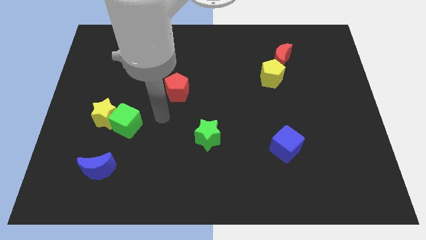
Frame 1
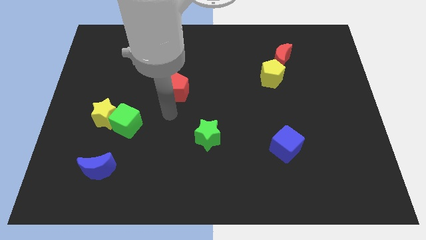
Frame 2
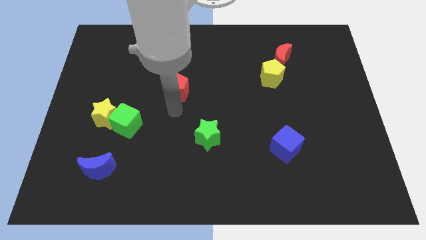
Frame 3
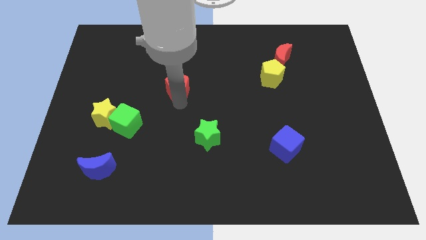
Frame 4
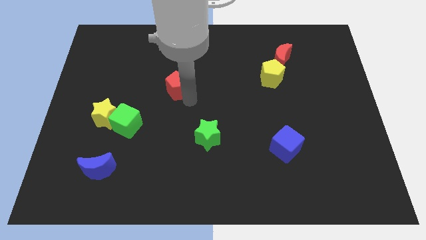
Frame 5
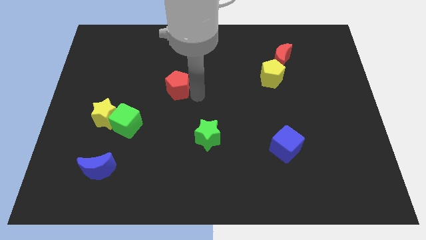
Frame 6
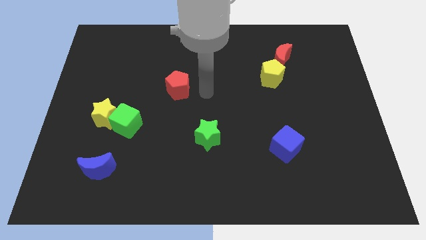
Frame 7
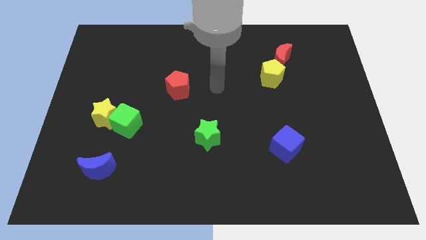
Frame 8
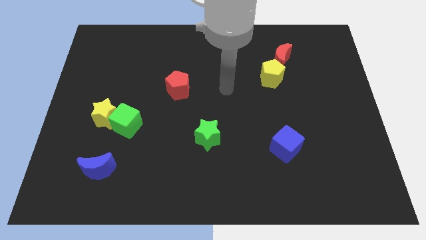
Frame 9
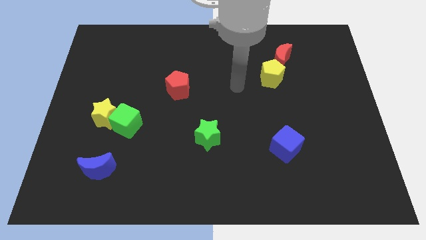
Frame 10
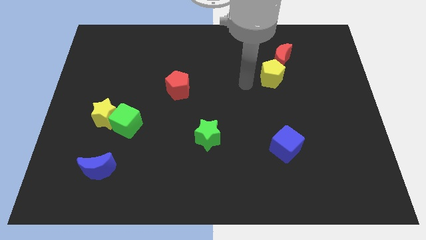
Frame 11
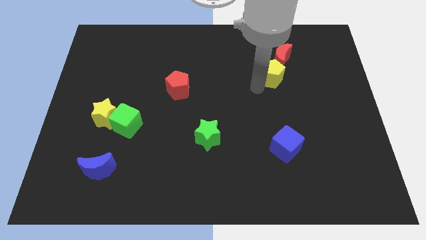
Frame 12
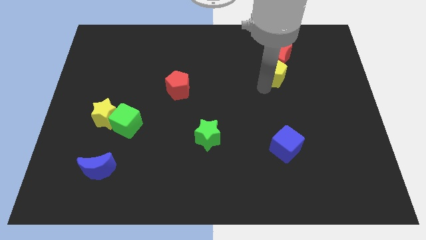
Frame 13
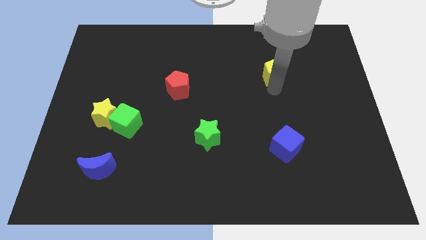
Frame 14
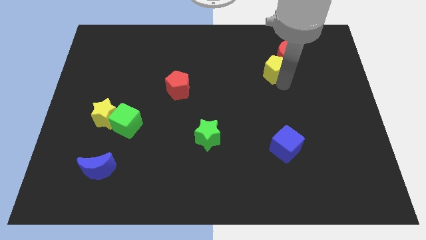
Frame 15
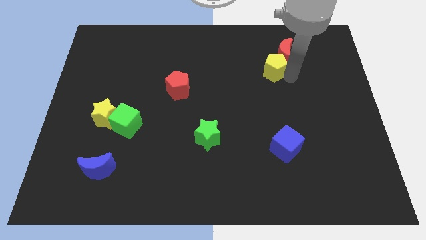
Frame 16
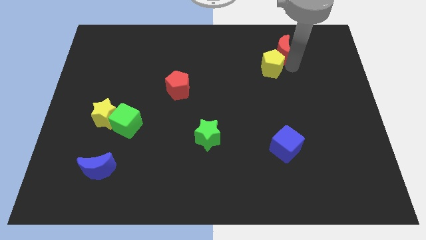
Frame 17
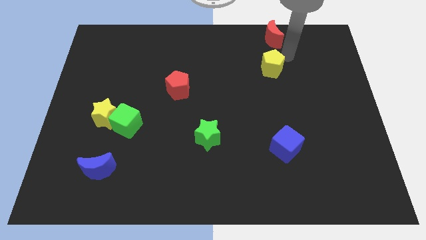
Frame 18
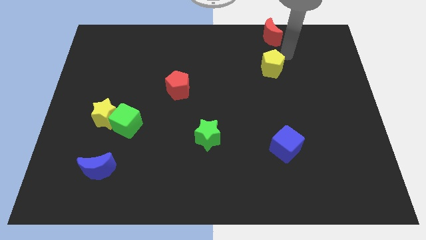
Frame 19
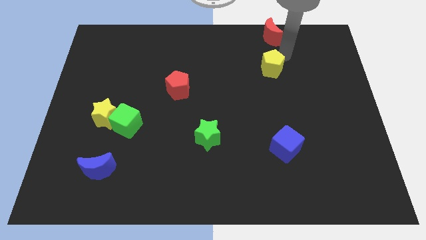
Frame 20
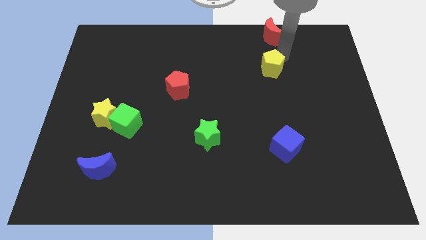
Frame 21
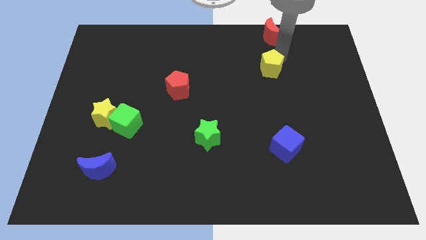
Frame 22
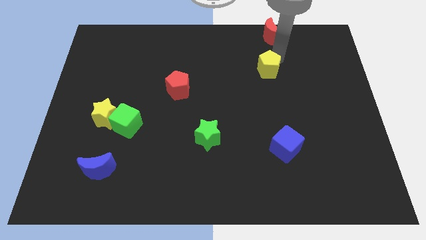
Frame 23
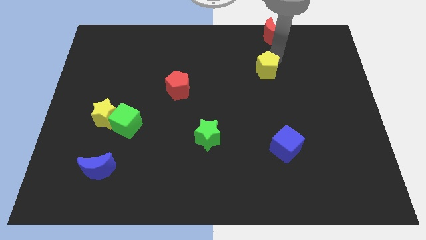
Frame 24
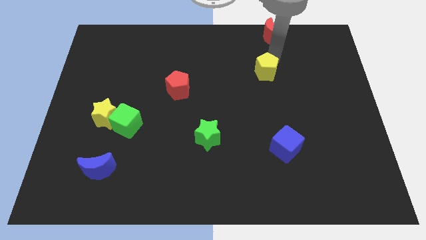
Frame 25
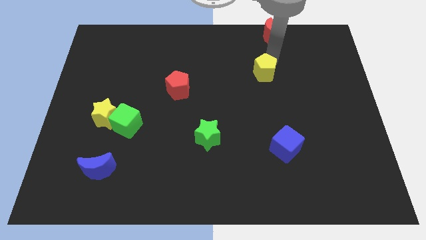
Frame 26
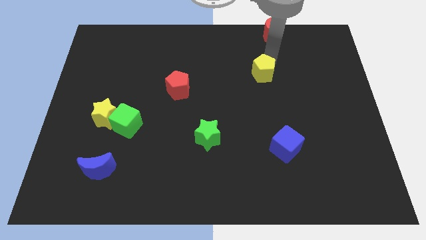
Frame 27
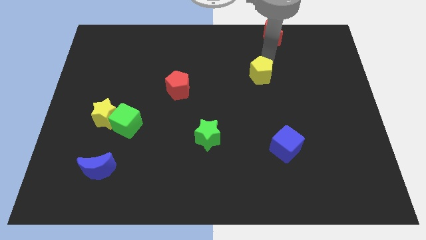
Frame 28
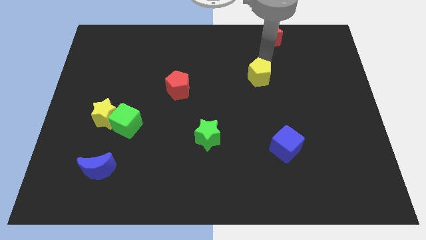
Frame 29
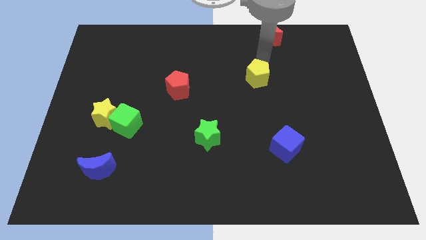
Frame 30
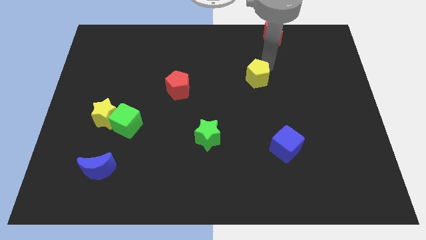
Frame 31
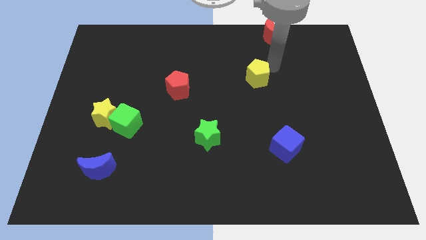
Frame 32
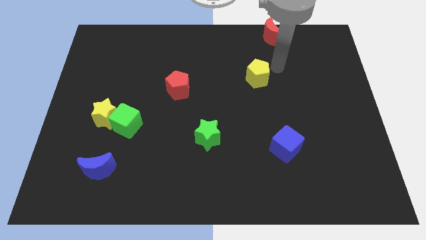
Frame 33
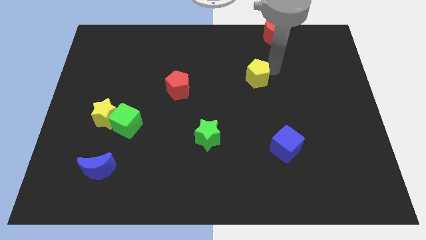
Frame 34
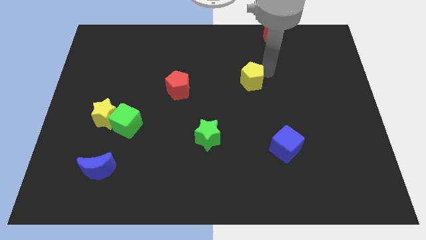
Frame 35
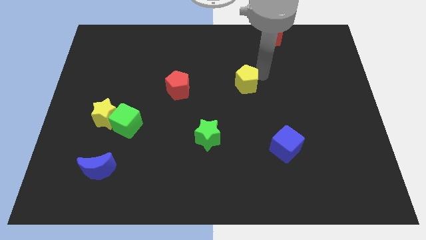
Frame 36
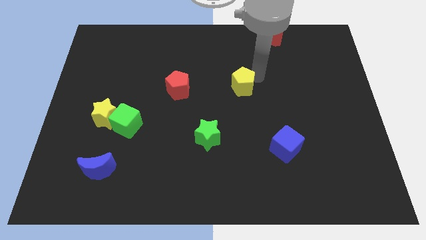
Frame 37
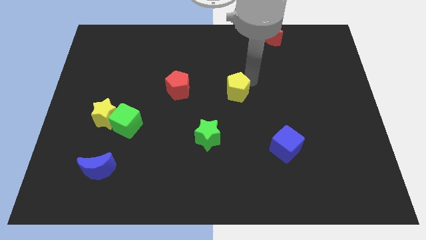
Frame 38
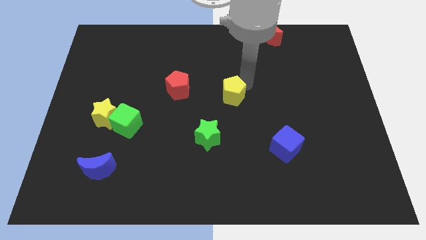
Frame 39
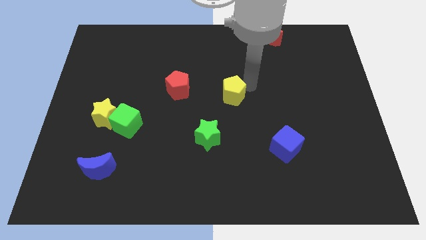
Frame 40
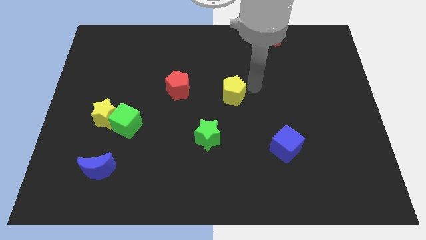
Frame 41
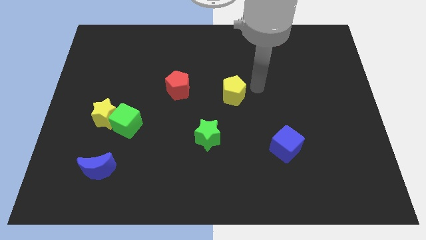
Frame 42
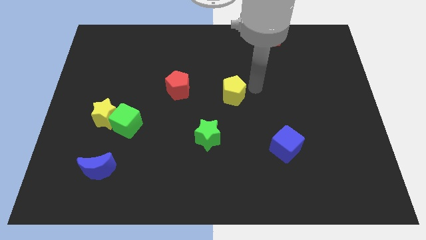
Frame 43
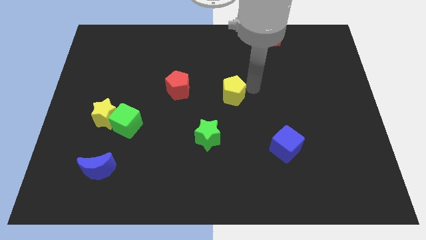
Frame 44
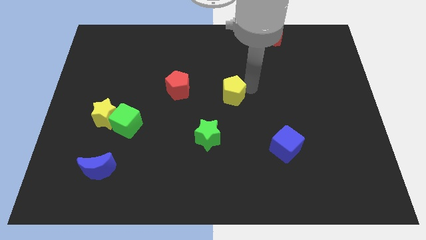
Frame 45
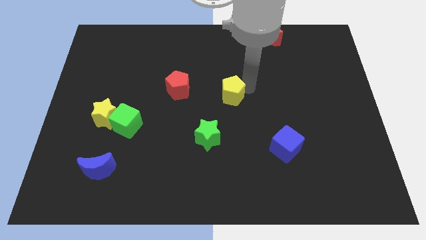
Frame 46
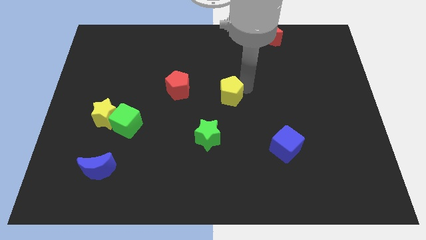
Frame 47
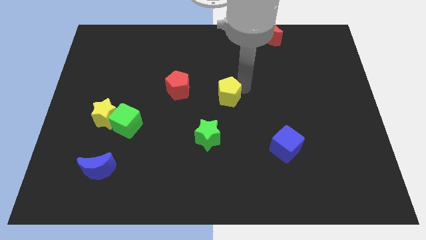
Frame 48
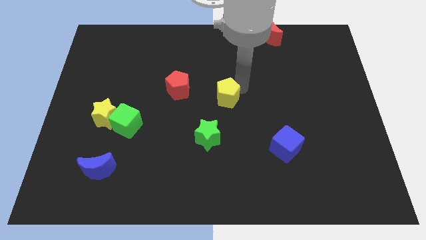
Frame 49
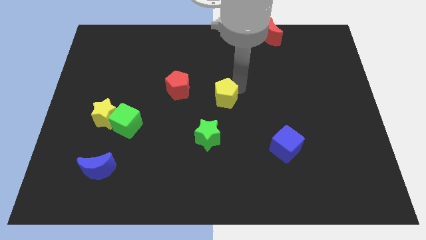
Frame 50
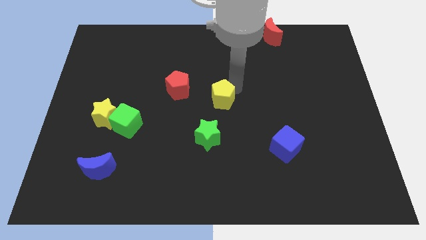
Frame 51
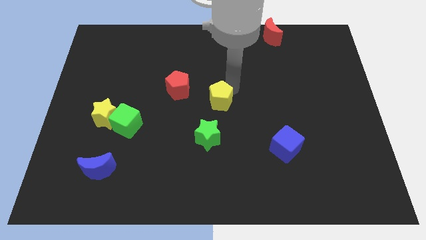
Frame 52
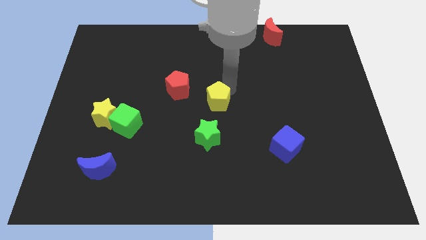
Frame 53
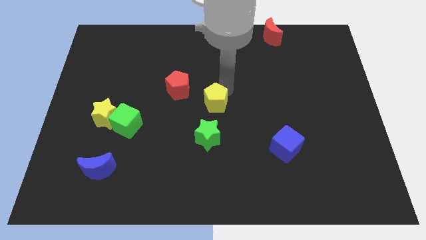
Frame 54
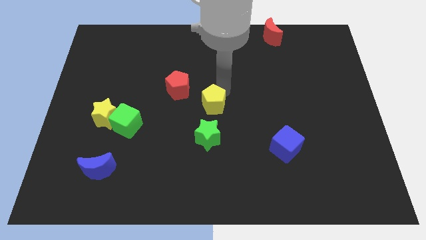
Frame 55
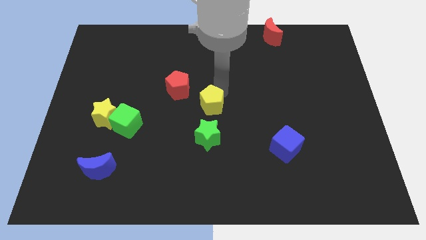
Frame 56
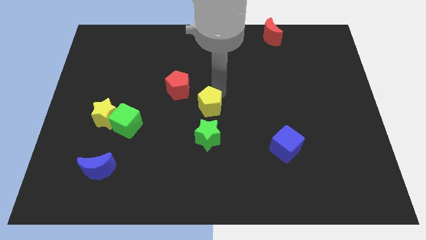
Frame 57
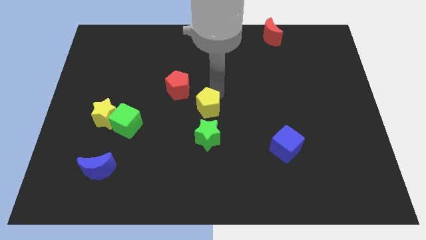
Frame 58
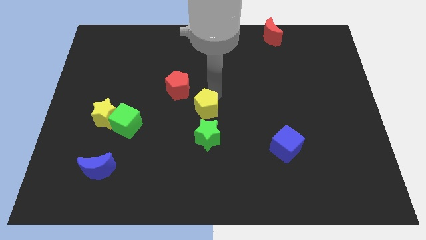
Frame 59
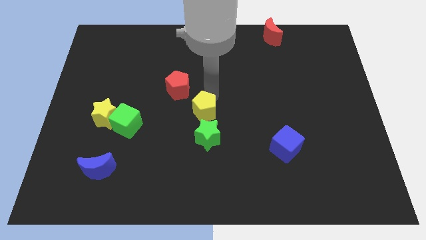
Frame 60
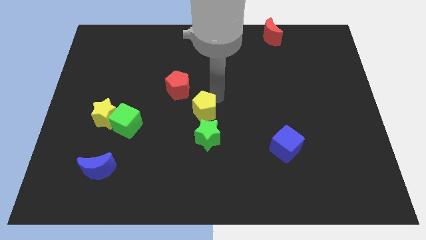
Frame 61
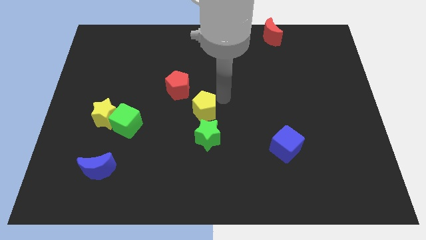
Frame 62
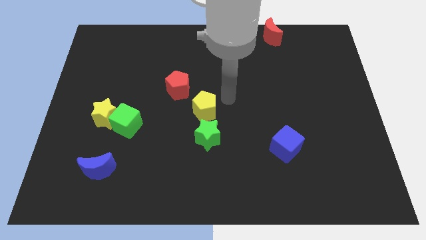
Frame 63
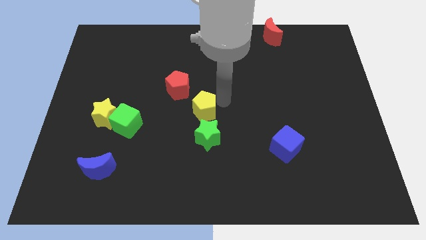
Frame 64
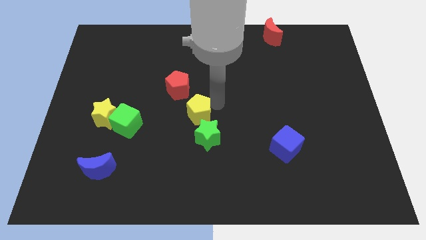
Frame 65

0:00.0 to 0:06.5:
move the yellow pentagon to the bottom side of the red pentagon

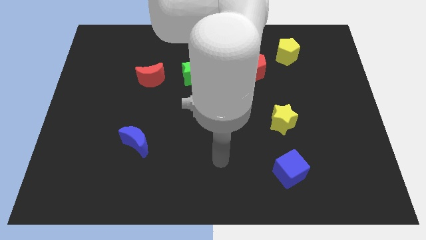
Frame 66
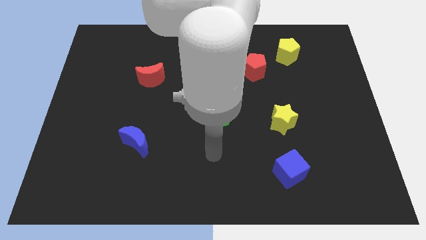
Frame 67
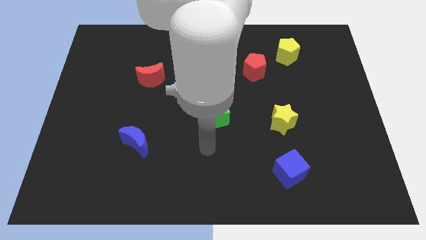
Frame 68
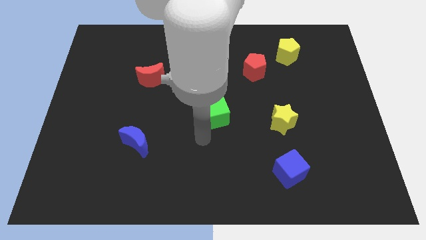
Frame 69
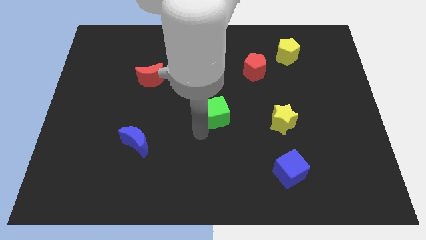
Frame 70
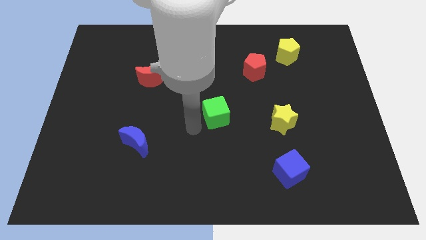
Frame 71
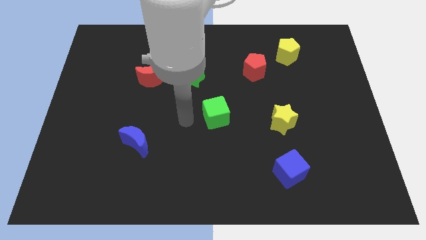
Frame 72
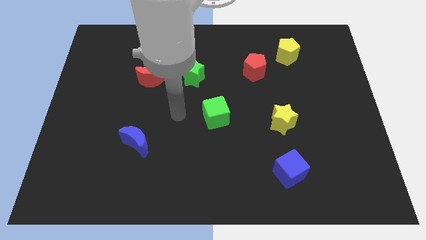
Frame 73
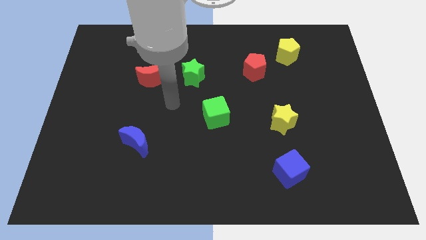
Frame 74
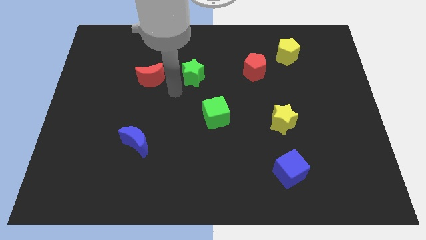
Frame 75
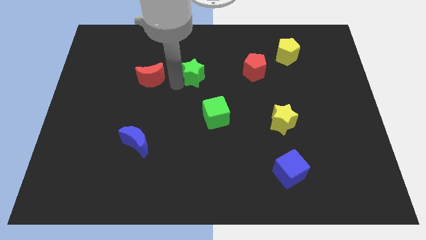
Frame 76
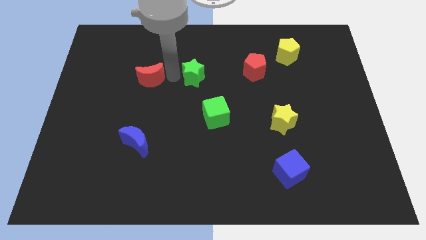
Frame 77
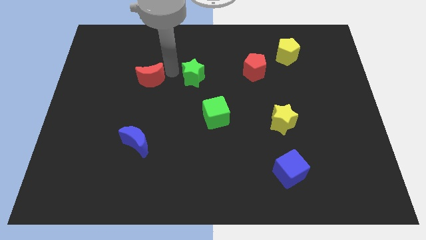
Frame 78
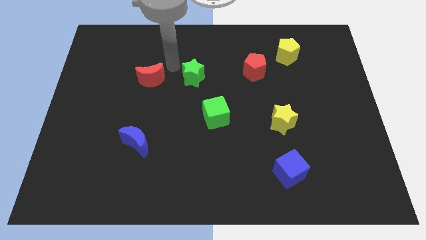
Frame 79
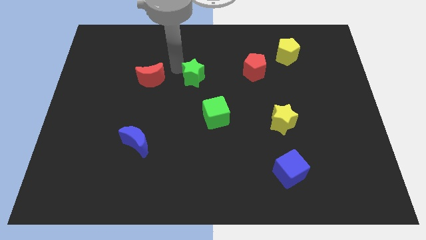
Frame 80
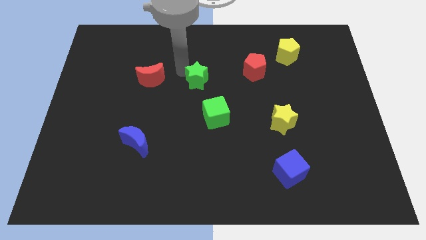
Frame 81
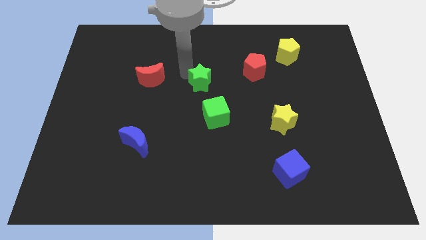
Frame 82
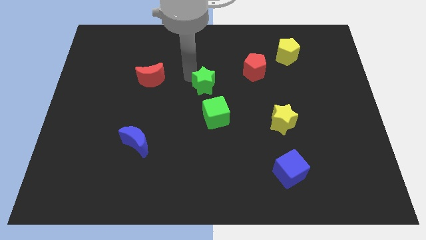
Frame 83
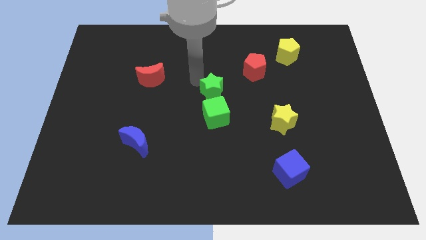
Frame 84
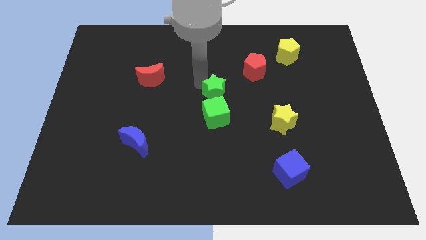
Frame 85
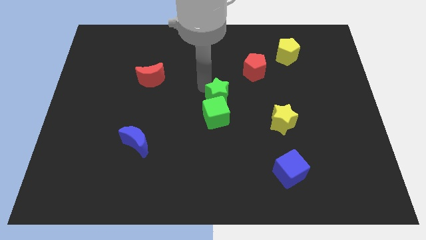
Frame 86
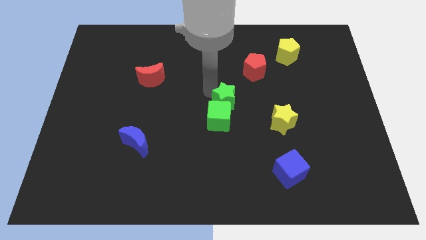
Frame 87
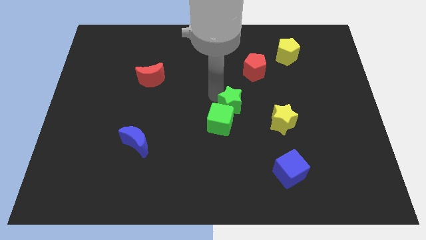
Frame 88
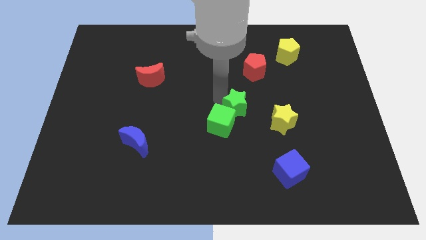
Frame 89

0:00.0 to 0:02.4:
push the green star just right of the green cube
